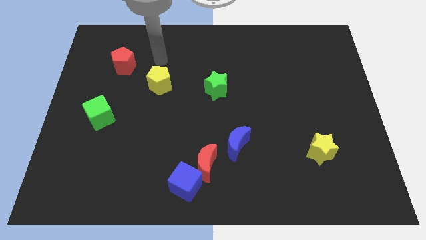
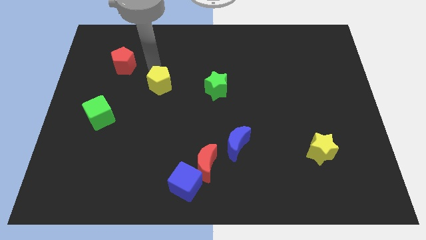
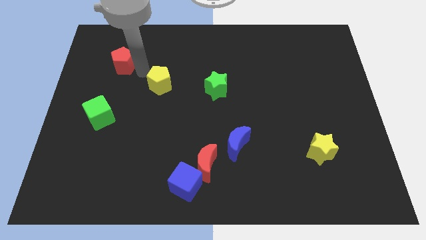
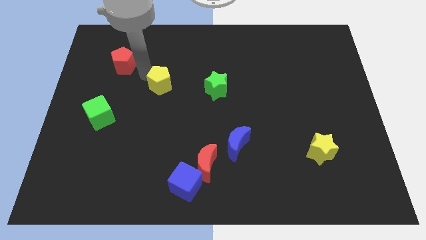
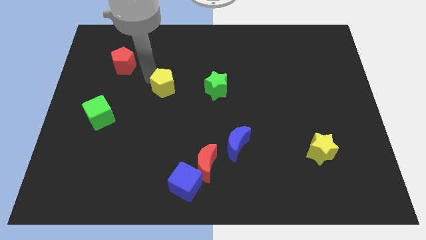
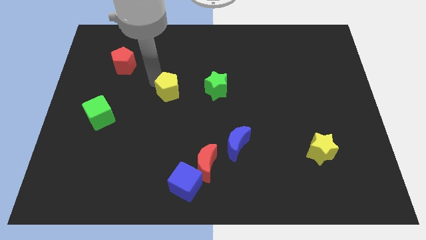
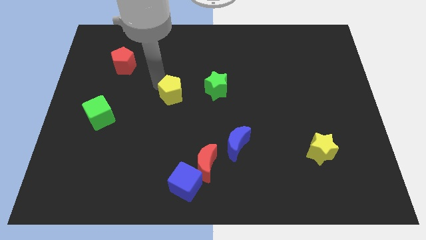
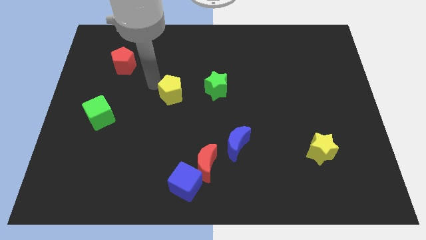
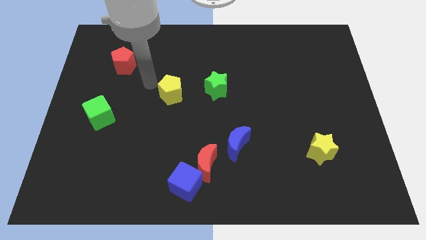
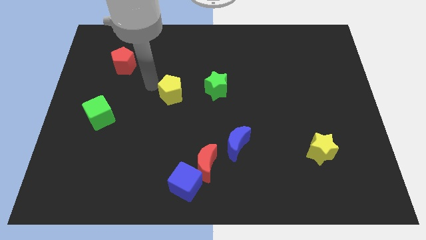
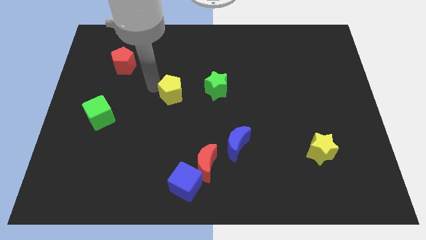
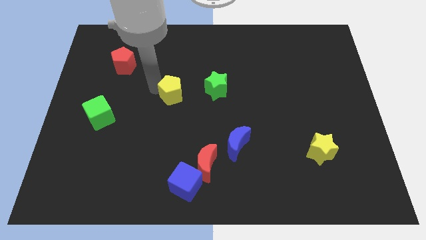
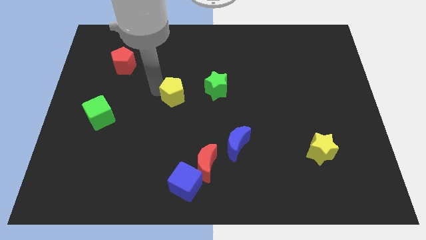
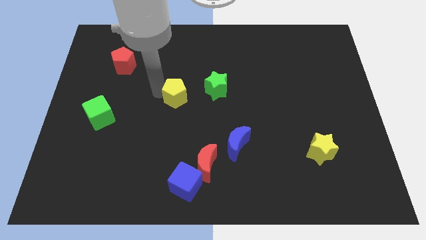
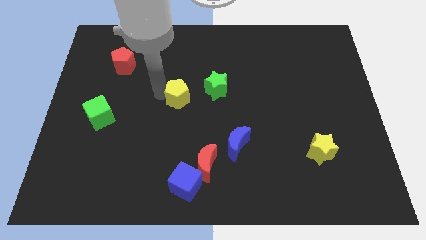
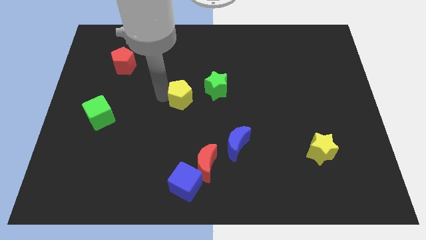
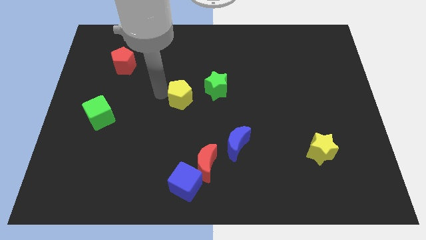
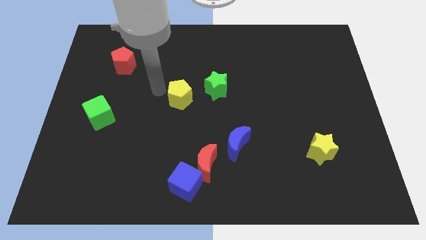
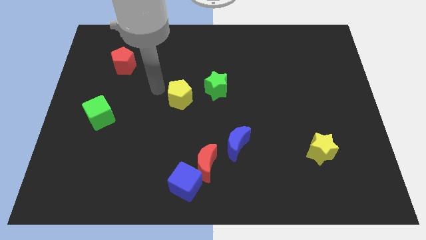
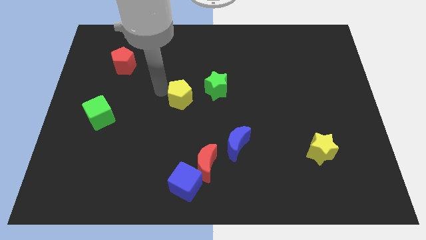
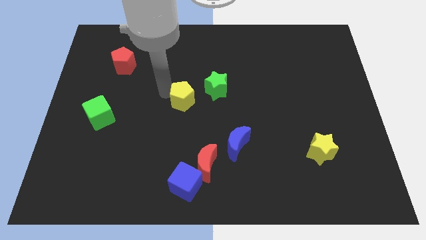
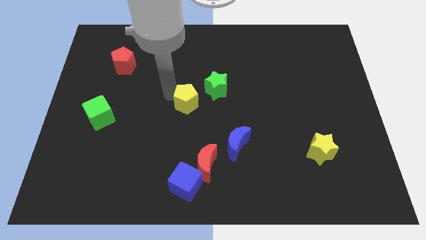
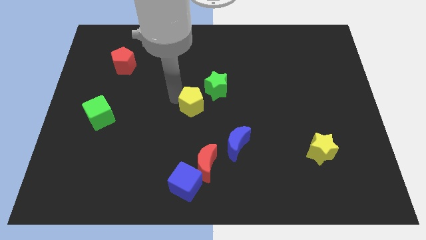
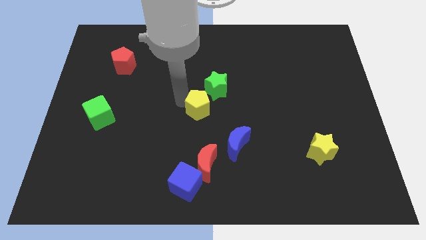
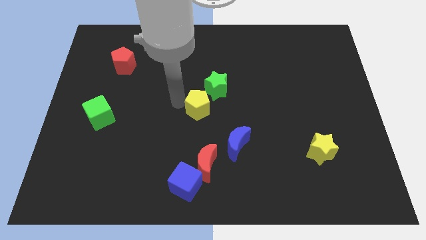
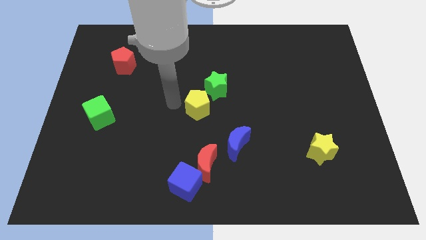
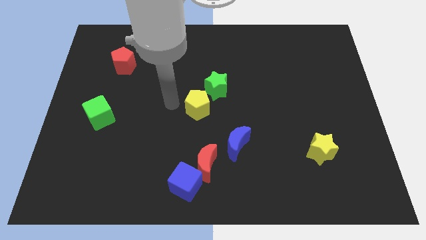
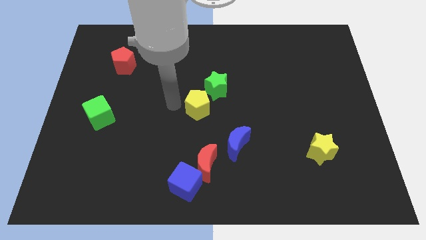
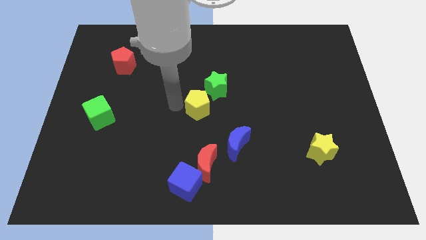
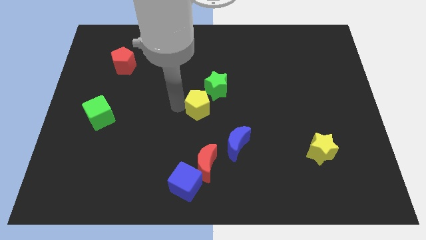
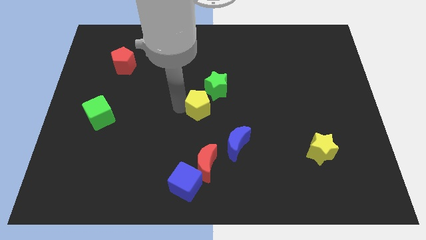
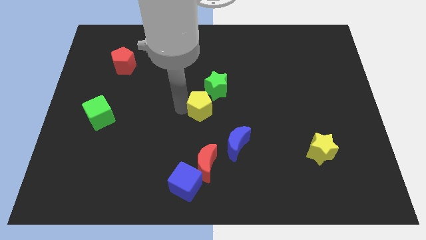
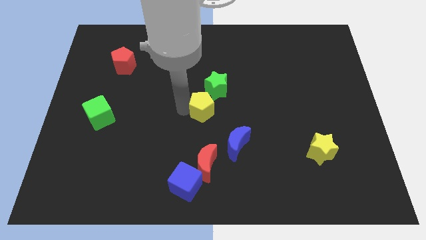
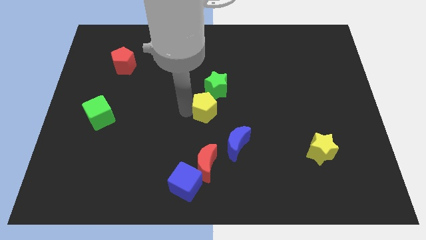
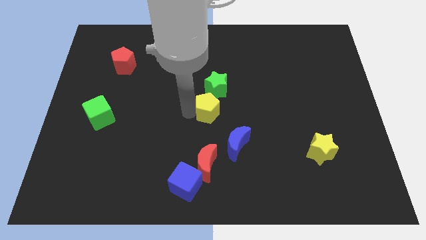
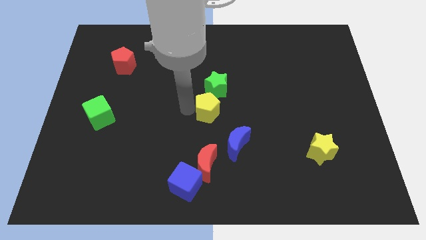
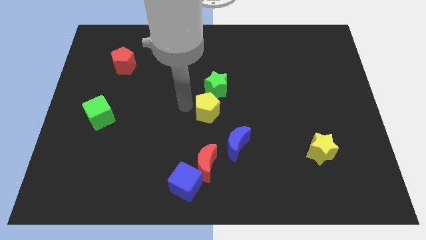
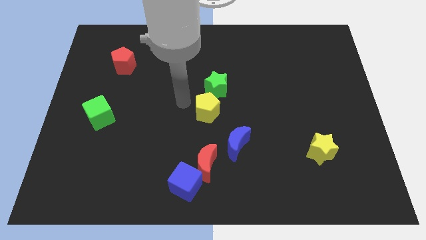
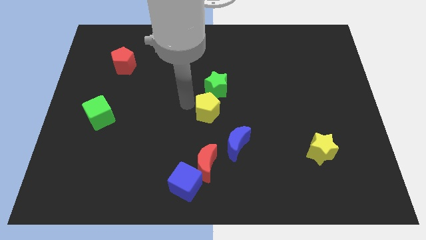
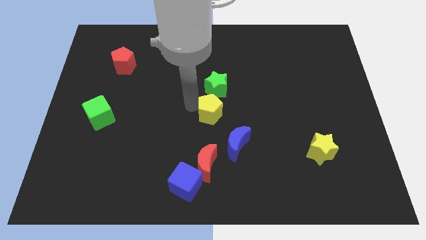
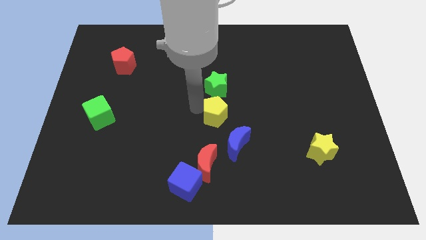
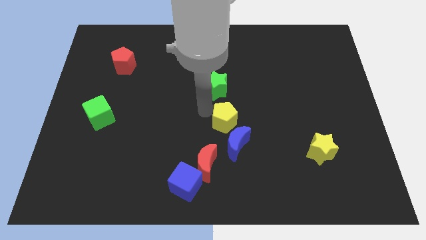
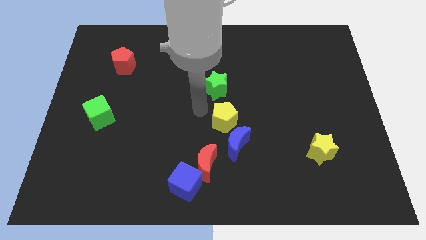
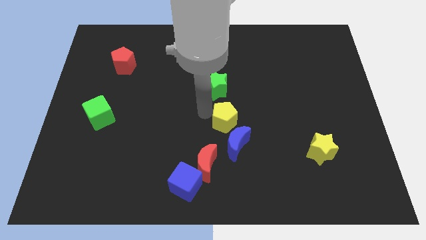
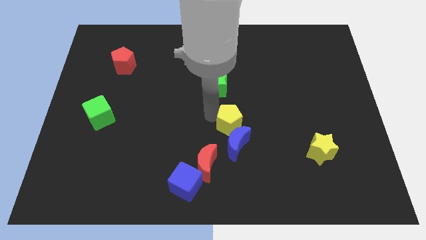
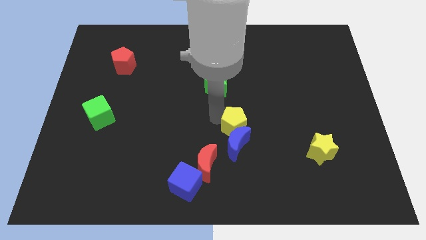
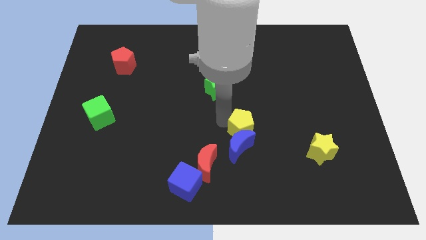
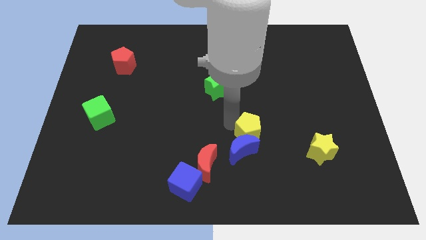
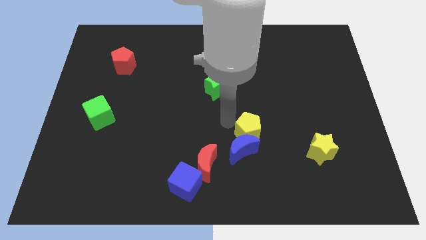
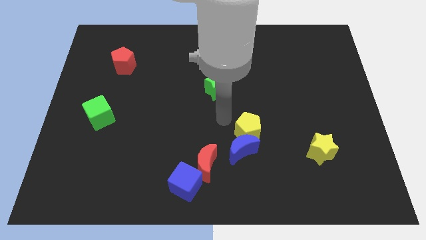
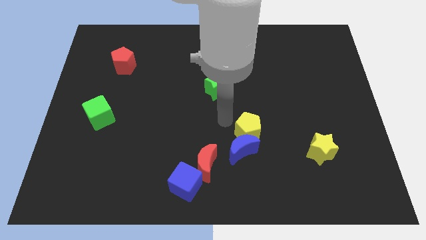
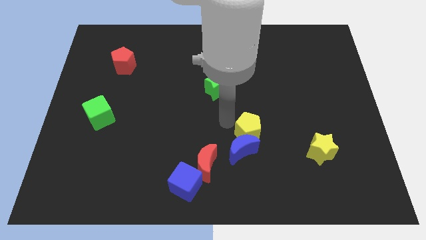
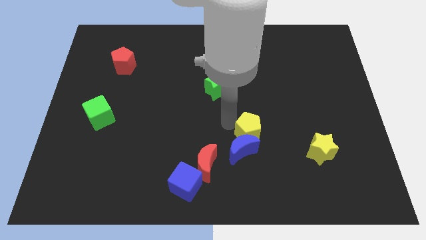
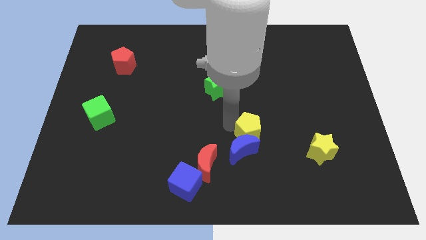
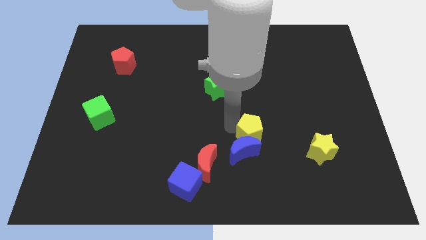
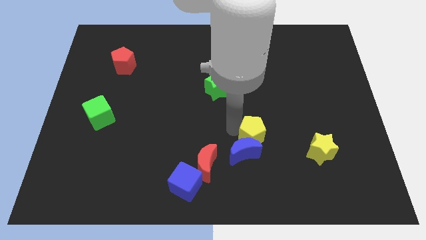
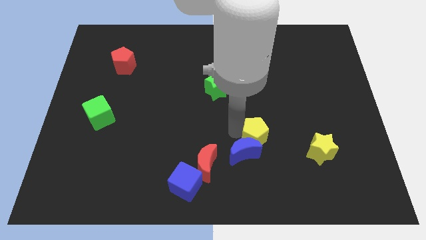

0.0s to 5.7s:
put the yellow pentagon left of the yellow star

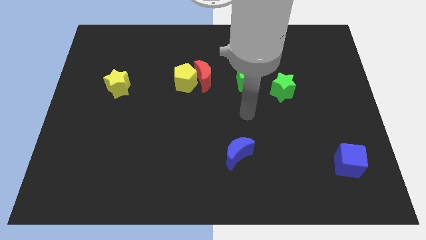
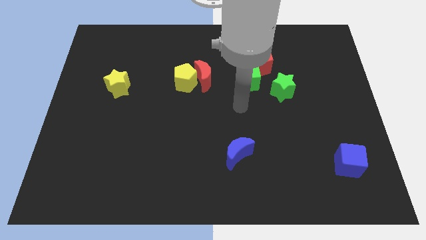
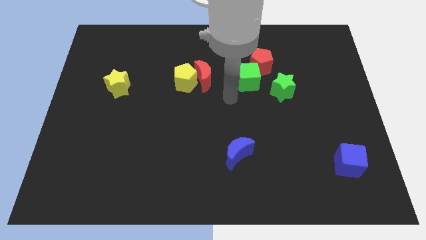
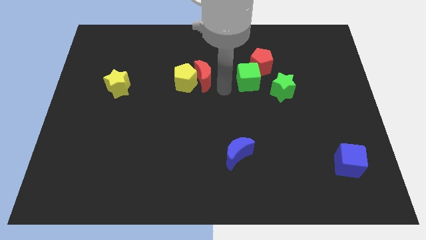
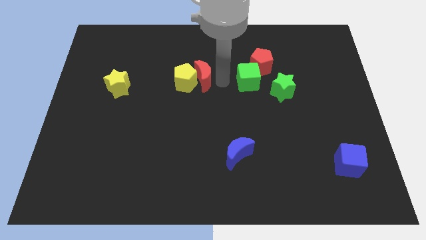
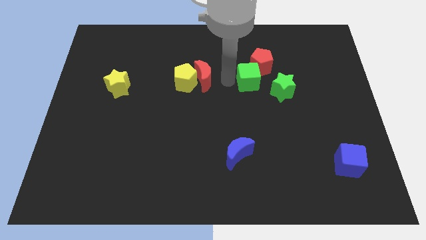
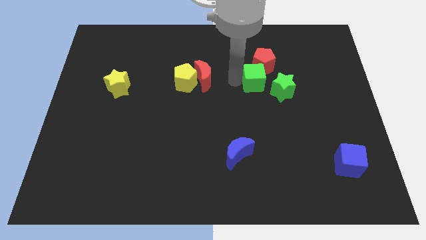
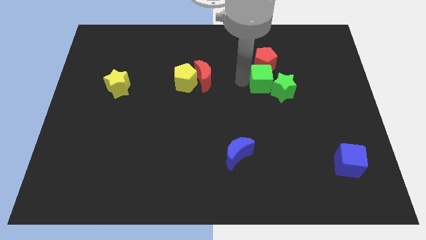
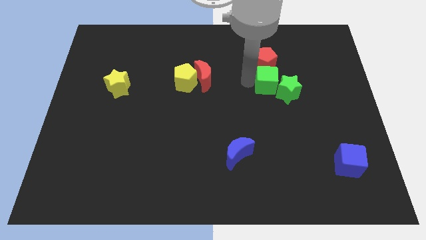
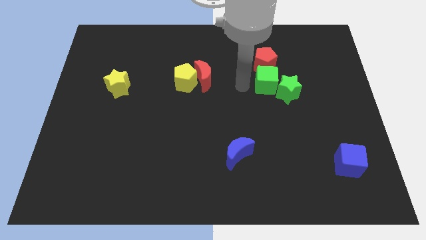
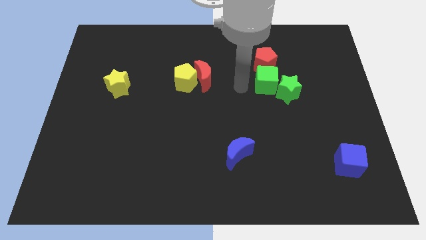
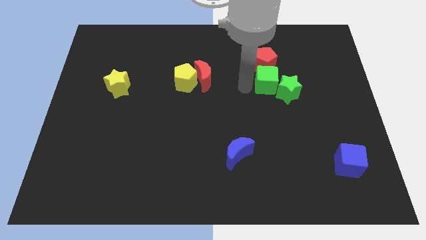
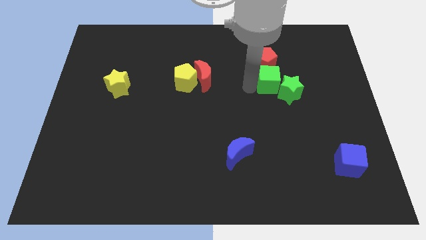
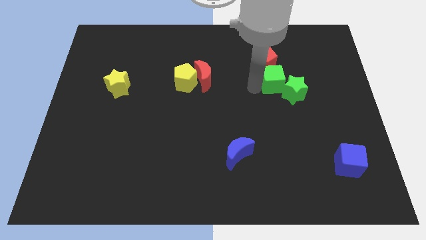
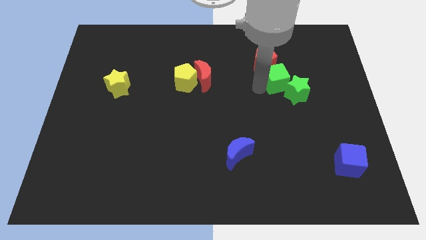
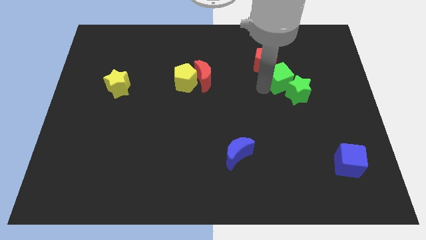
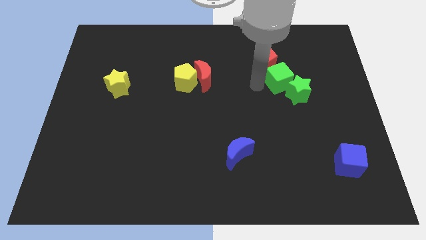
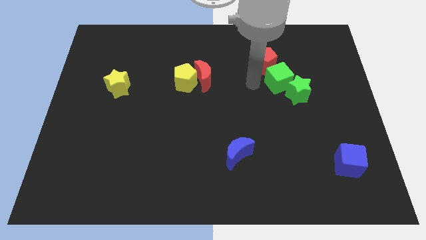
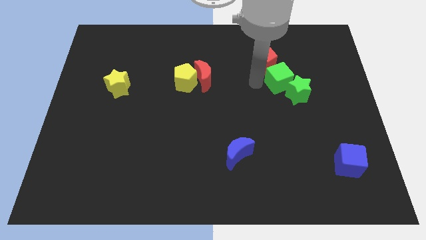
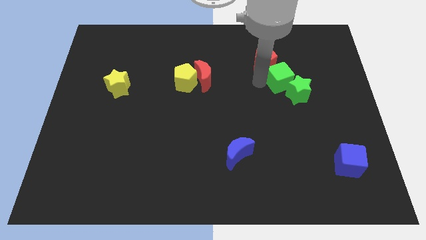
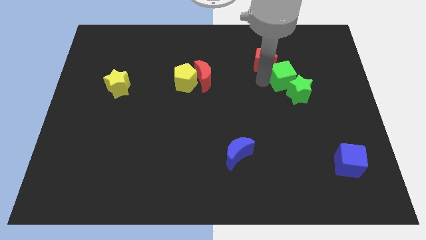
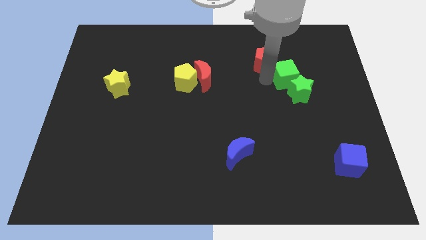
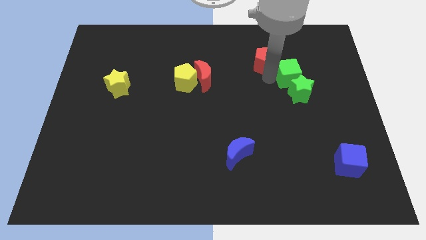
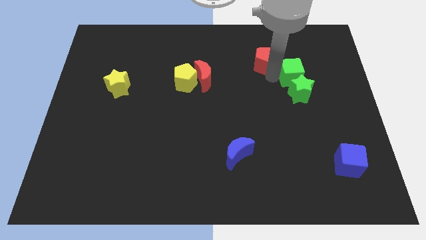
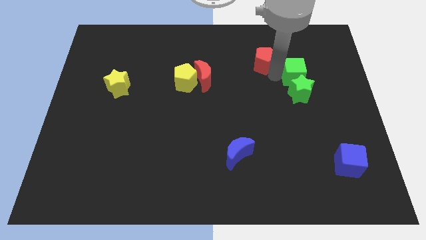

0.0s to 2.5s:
put the green cube diagonally up and to the right of the green star
